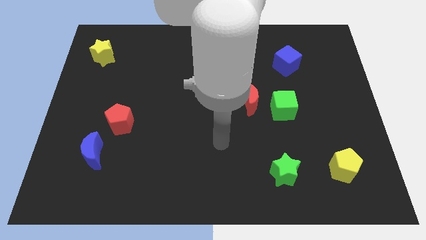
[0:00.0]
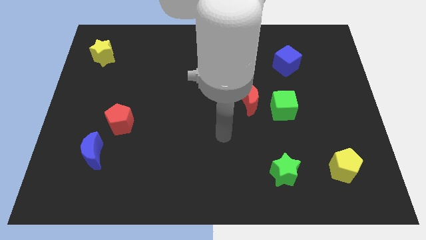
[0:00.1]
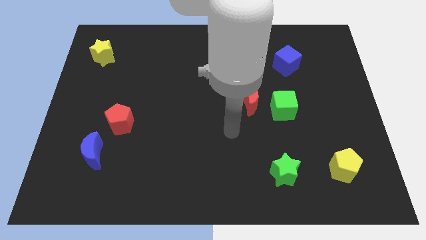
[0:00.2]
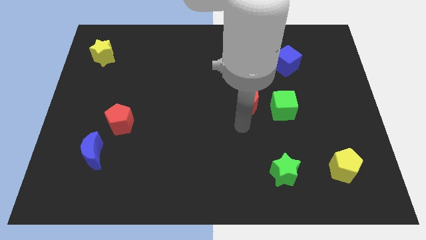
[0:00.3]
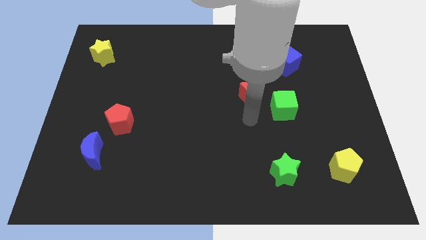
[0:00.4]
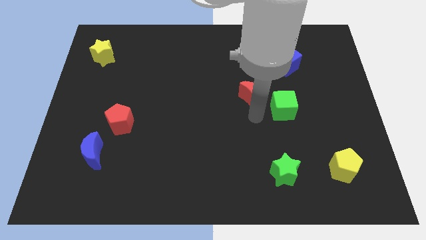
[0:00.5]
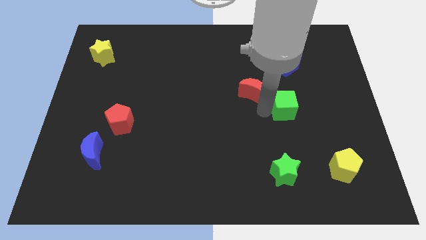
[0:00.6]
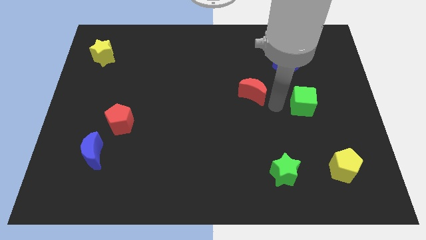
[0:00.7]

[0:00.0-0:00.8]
separate the red moon from the green cube

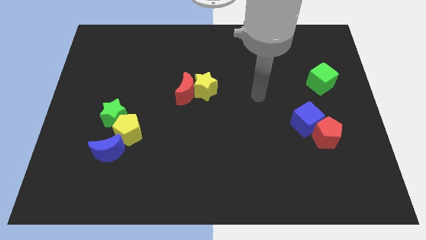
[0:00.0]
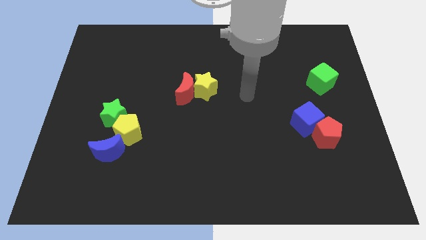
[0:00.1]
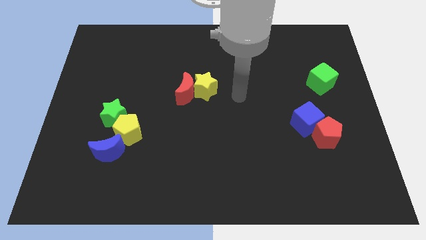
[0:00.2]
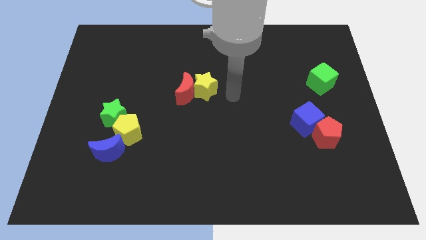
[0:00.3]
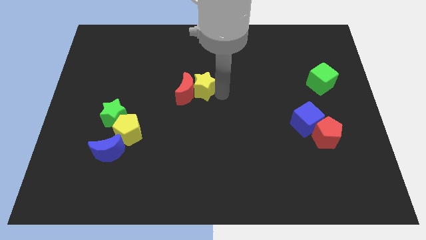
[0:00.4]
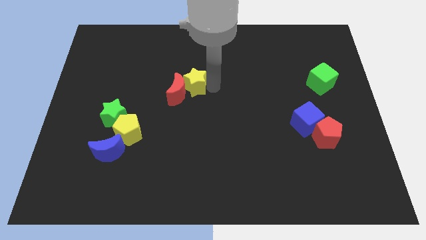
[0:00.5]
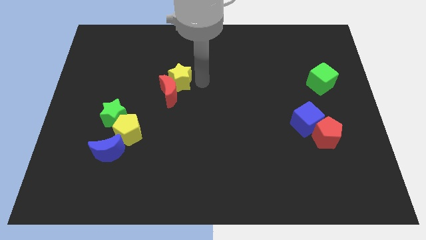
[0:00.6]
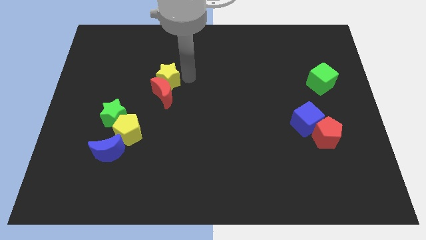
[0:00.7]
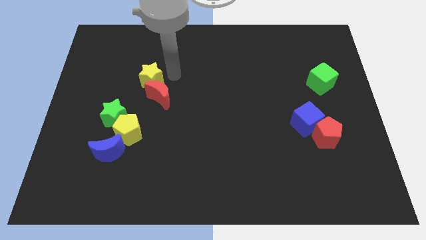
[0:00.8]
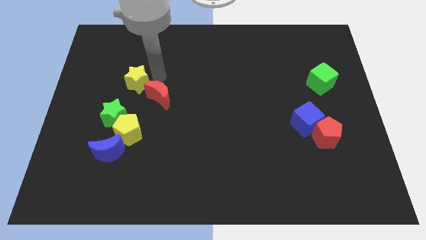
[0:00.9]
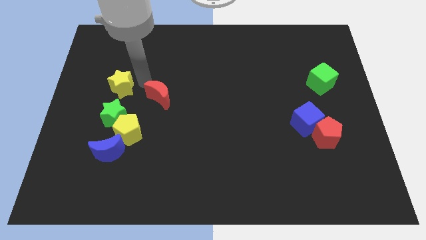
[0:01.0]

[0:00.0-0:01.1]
separate the red moon from the yellow star

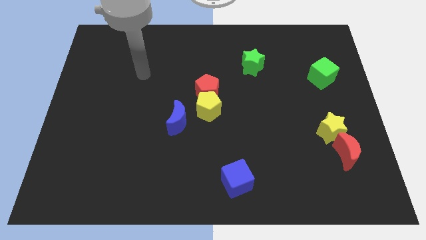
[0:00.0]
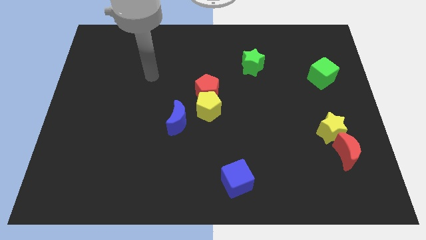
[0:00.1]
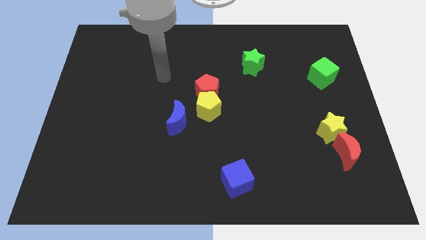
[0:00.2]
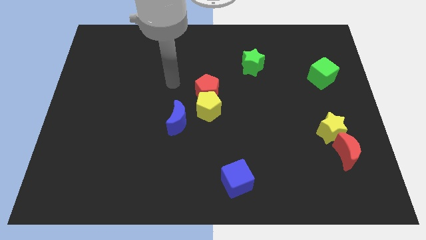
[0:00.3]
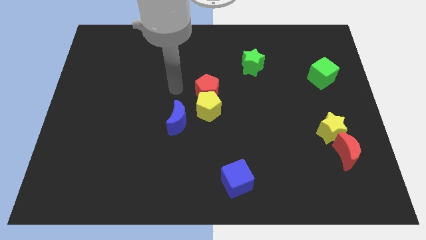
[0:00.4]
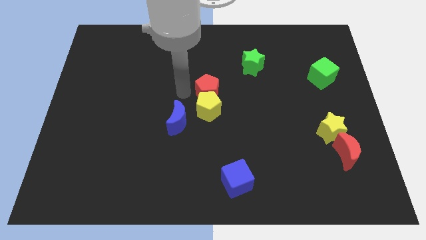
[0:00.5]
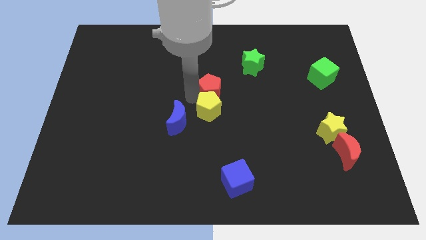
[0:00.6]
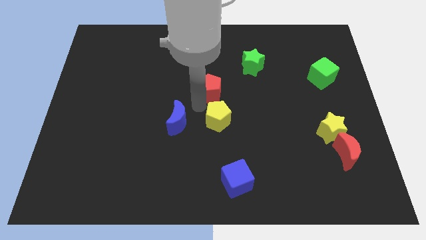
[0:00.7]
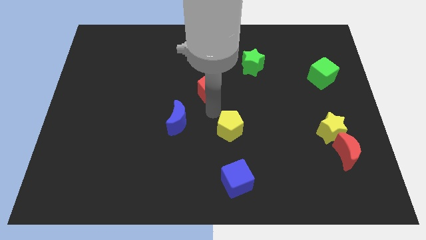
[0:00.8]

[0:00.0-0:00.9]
separate the red pentagon from the yellow pentagon

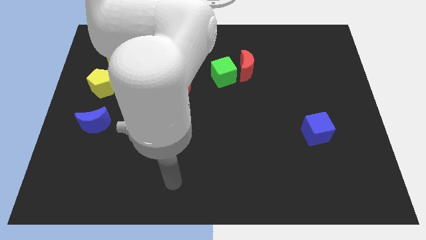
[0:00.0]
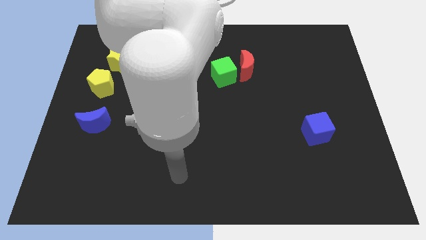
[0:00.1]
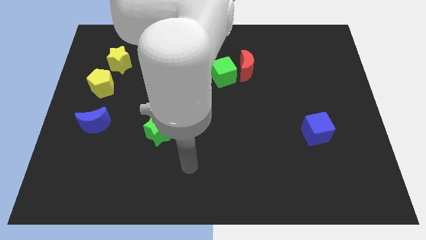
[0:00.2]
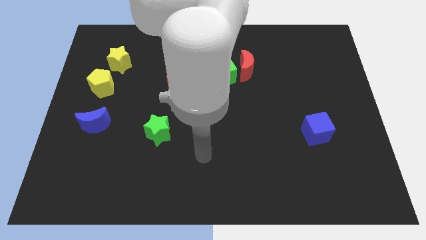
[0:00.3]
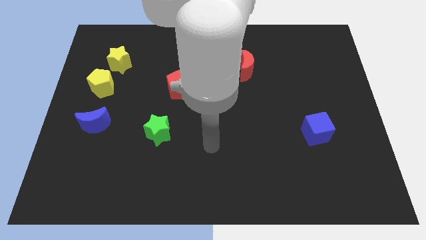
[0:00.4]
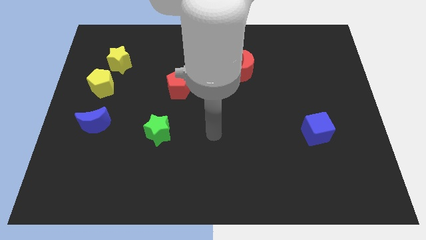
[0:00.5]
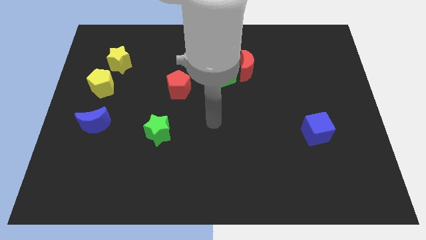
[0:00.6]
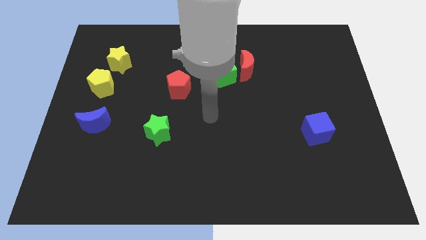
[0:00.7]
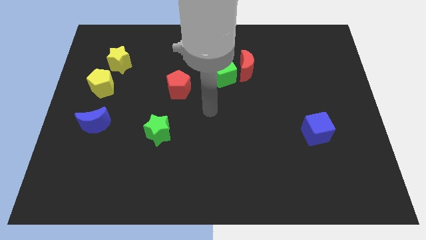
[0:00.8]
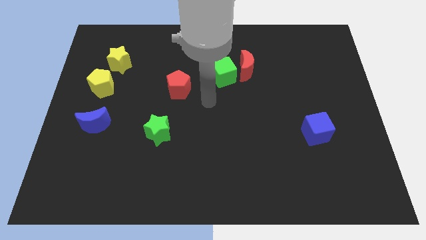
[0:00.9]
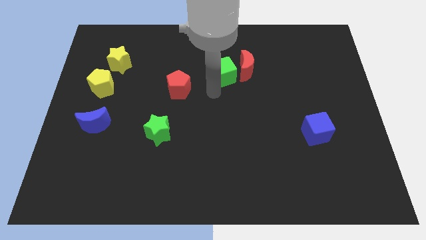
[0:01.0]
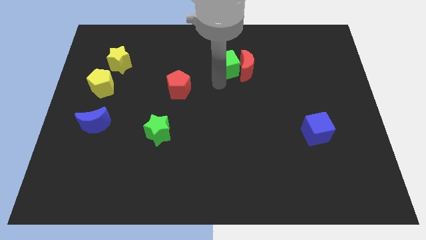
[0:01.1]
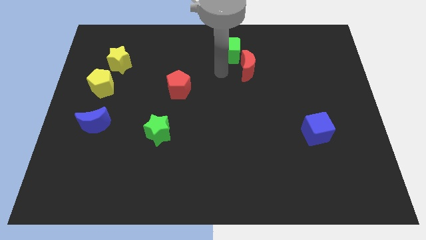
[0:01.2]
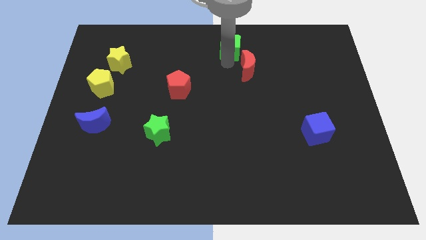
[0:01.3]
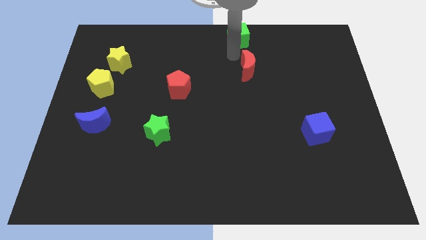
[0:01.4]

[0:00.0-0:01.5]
move the red moon away from the green cube

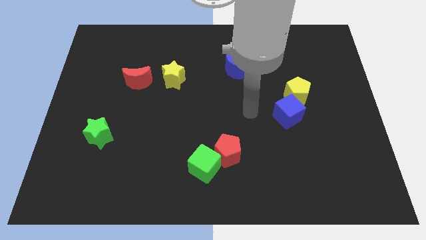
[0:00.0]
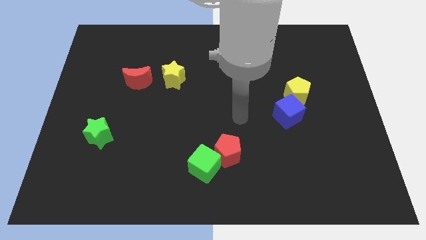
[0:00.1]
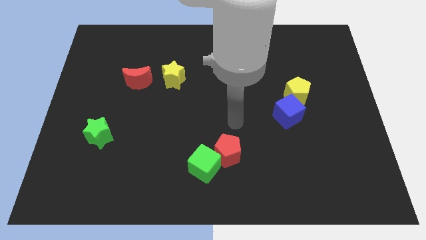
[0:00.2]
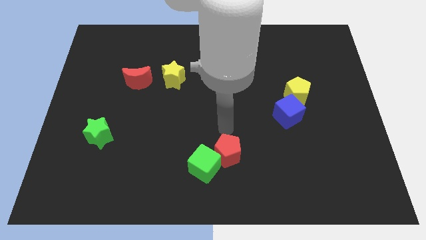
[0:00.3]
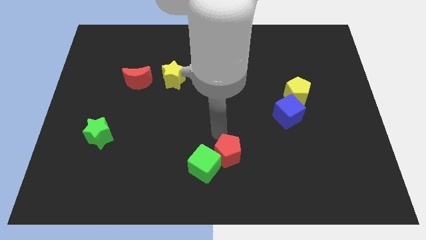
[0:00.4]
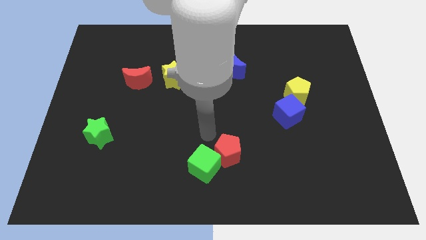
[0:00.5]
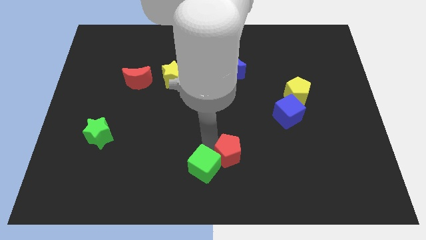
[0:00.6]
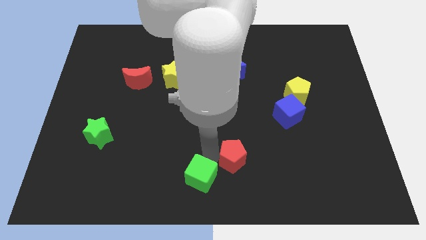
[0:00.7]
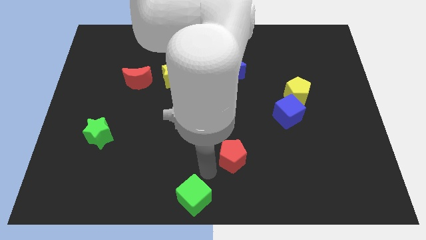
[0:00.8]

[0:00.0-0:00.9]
pull the red pentagon apart from the green cube

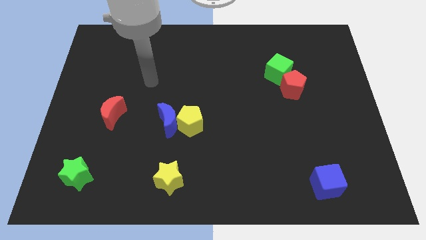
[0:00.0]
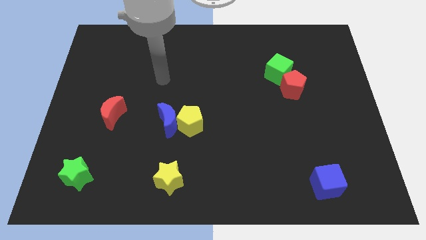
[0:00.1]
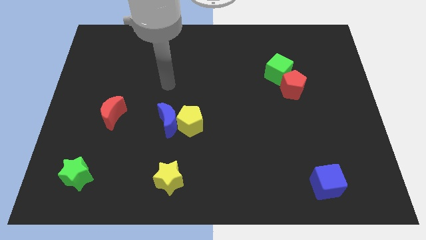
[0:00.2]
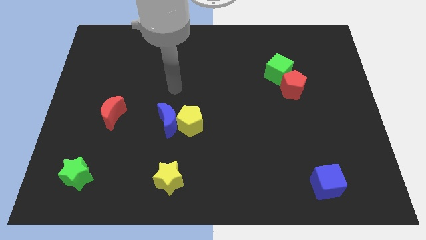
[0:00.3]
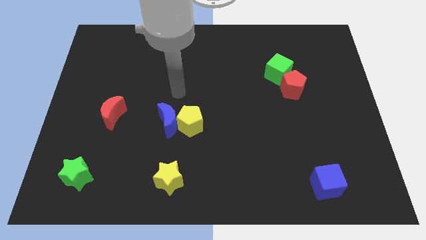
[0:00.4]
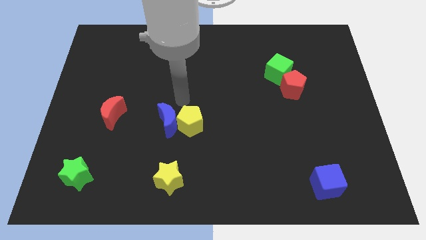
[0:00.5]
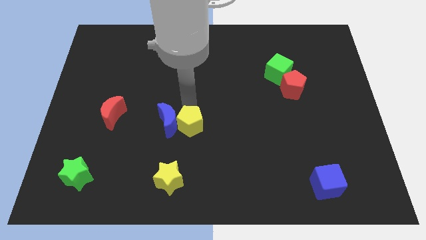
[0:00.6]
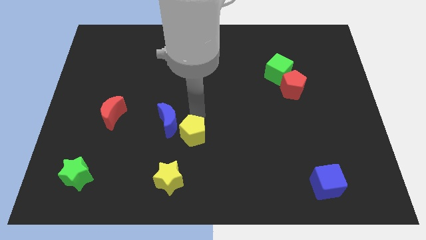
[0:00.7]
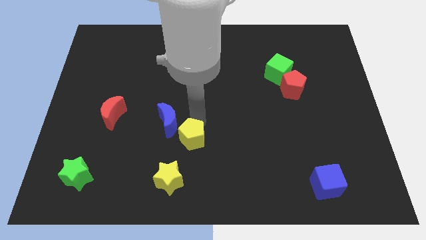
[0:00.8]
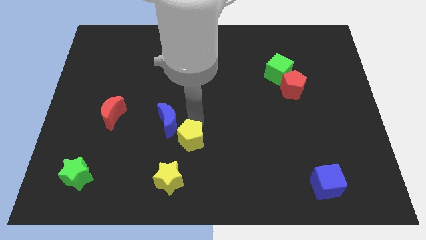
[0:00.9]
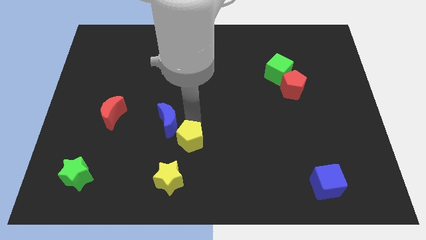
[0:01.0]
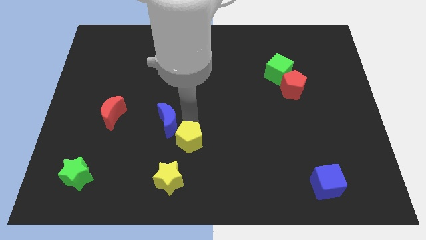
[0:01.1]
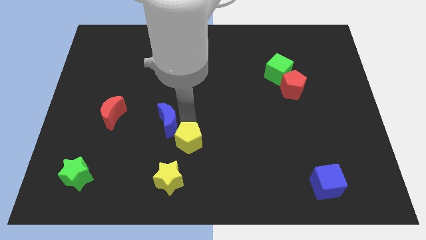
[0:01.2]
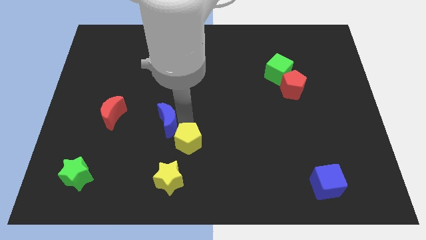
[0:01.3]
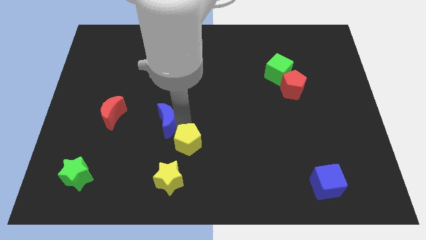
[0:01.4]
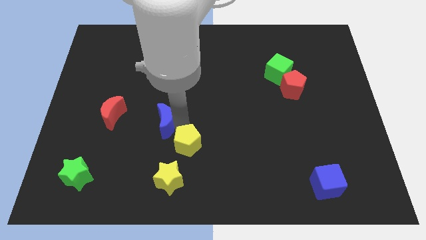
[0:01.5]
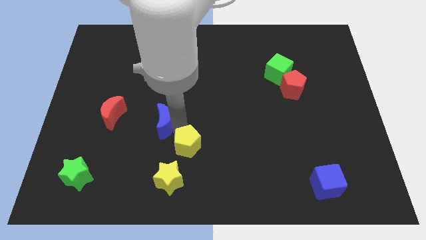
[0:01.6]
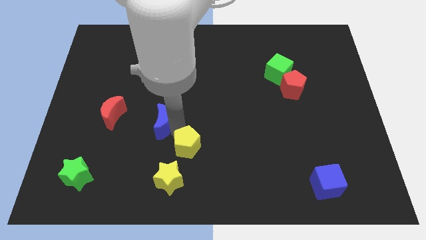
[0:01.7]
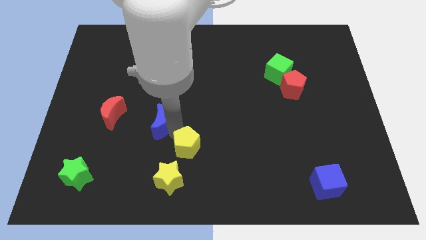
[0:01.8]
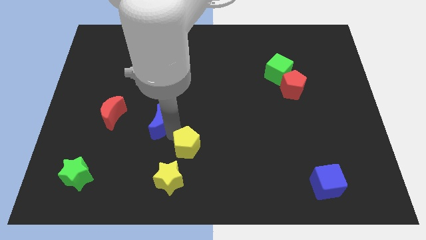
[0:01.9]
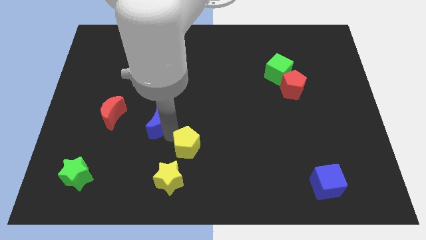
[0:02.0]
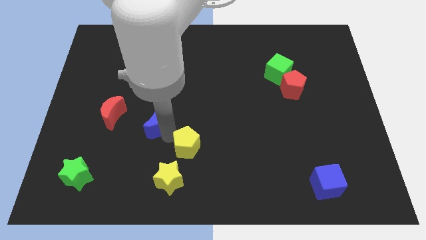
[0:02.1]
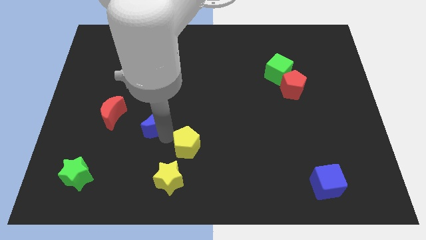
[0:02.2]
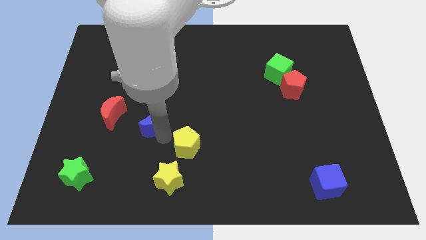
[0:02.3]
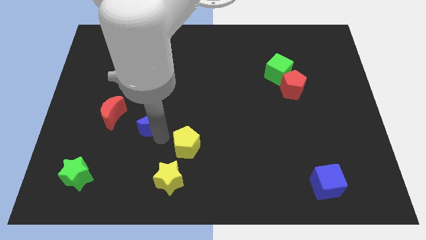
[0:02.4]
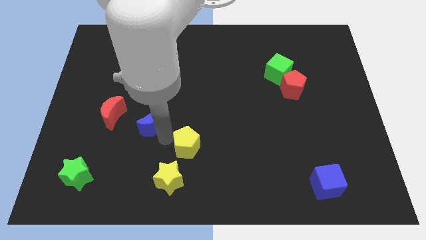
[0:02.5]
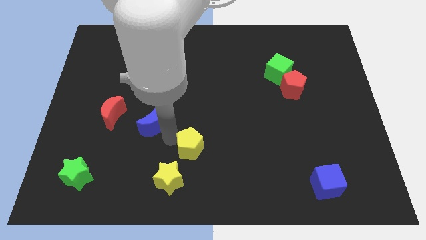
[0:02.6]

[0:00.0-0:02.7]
pull the blue moon apart from the yellow pentagon

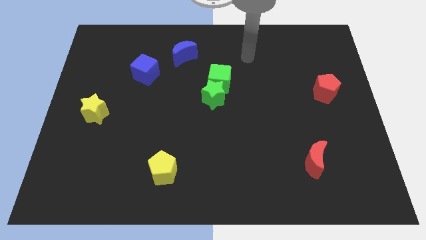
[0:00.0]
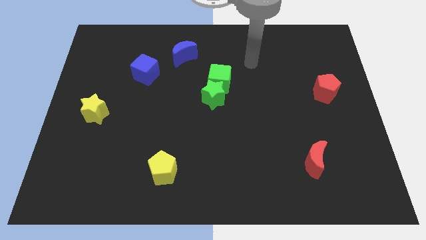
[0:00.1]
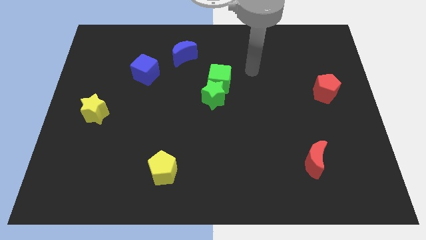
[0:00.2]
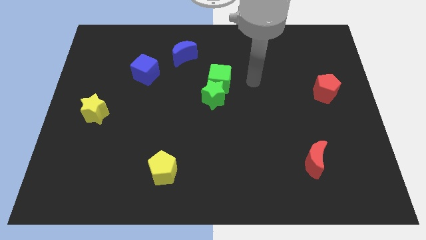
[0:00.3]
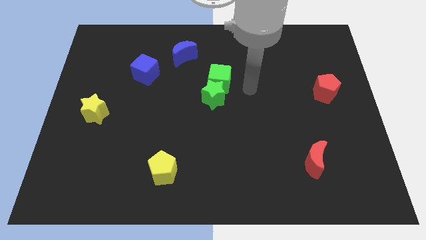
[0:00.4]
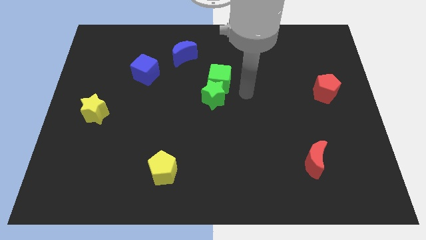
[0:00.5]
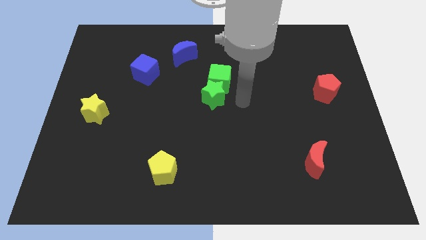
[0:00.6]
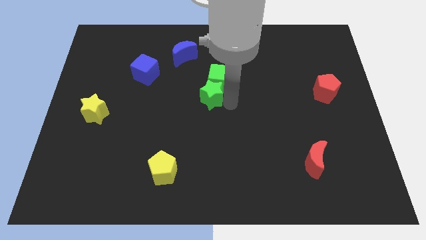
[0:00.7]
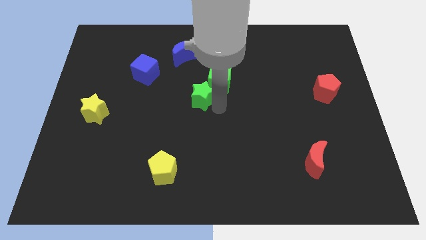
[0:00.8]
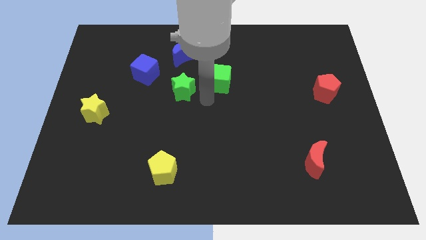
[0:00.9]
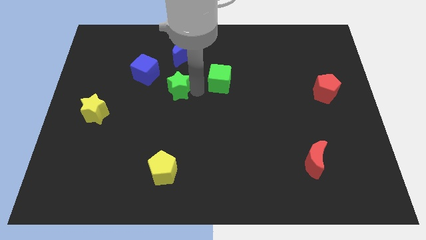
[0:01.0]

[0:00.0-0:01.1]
pull the green cube apart from the green star

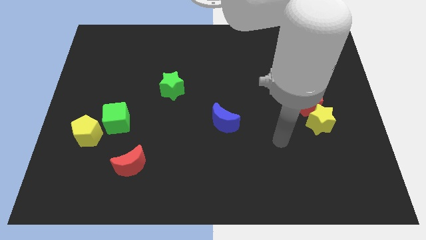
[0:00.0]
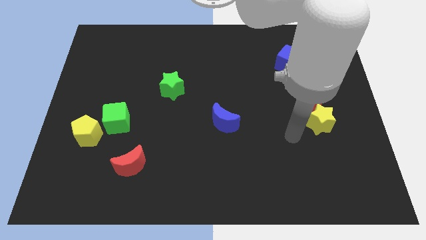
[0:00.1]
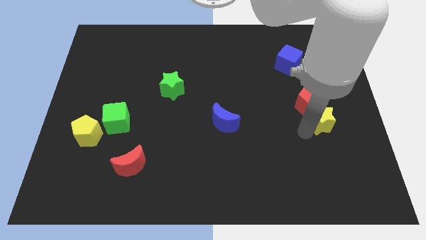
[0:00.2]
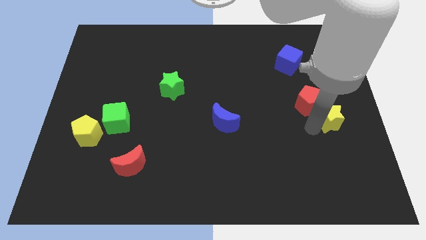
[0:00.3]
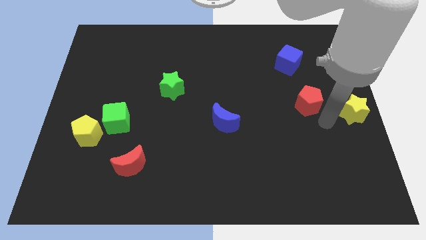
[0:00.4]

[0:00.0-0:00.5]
move the red pentagon away from the yellow star
